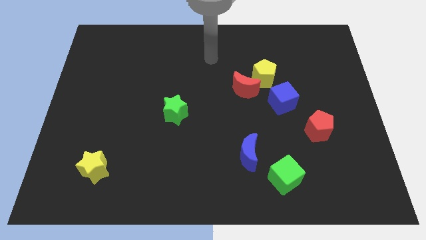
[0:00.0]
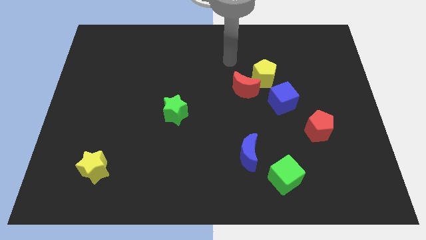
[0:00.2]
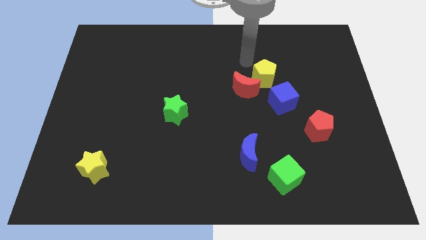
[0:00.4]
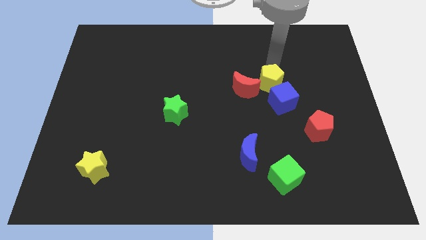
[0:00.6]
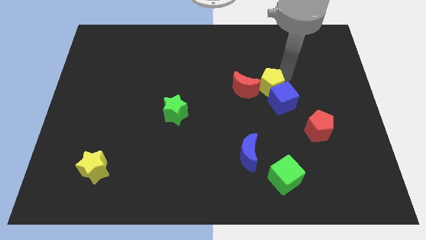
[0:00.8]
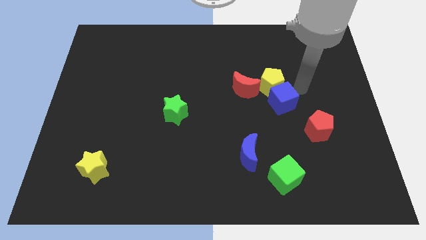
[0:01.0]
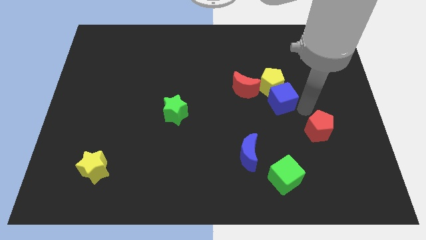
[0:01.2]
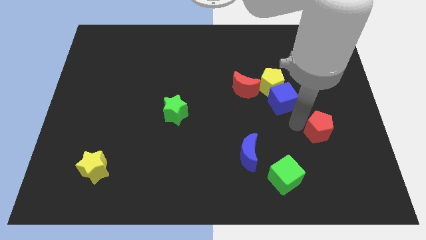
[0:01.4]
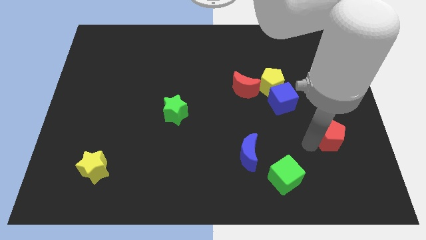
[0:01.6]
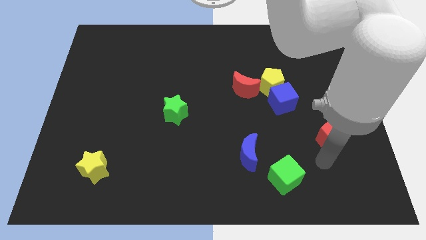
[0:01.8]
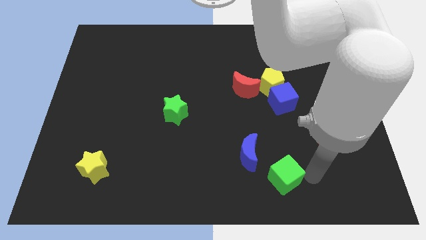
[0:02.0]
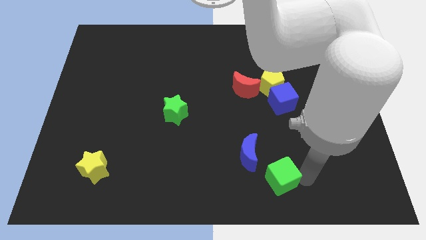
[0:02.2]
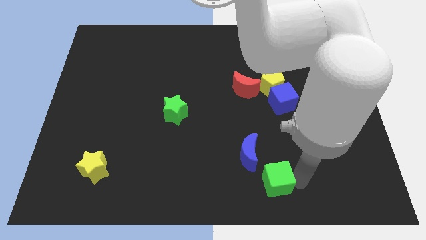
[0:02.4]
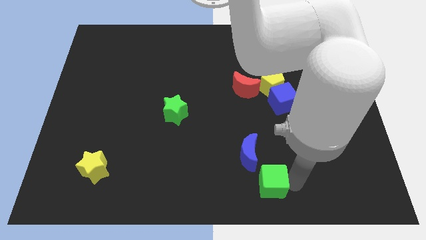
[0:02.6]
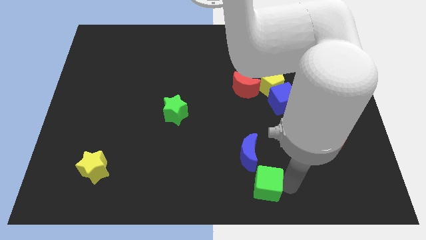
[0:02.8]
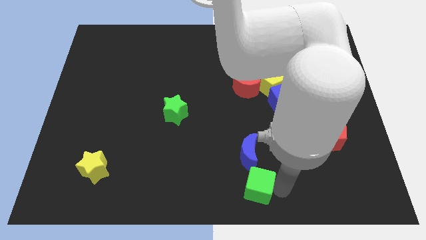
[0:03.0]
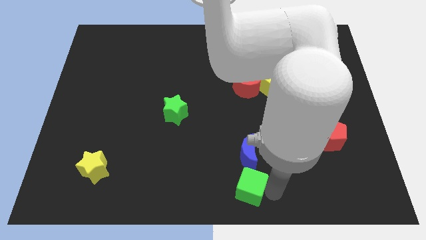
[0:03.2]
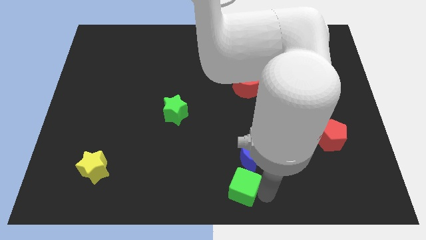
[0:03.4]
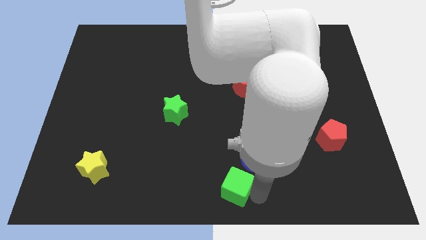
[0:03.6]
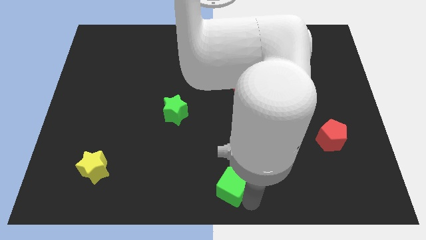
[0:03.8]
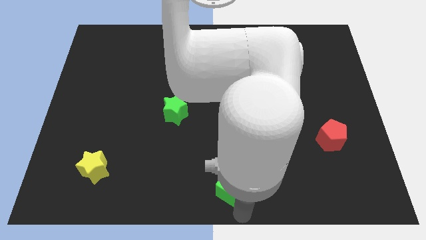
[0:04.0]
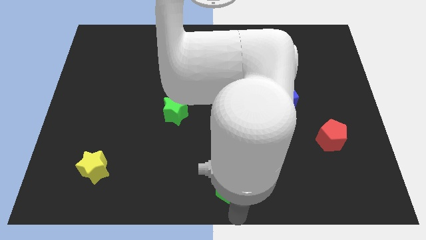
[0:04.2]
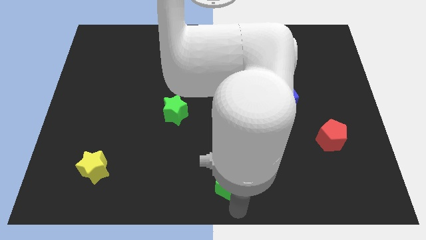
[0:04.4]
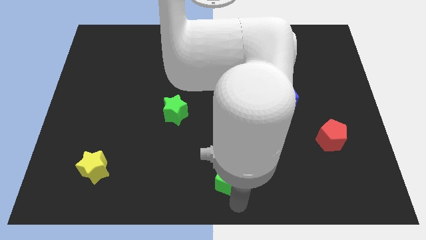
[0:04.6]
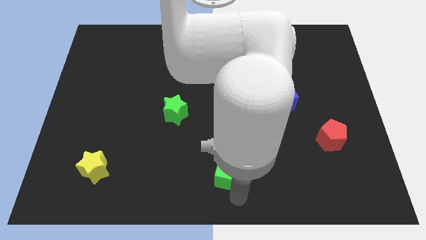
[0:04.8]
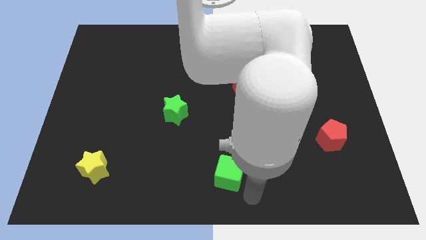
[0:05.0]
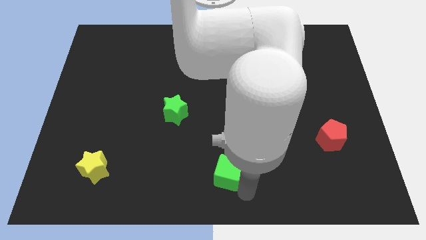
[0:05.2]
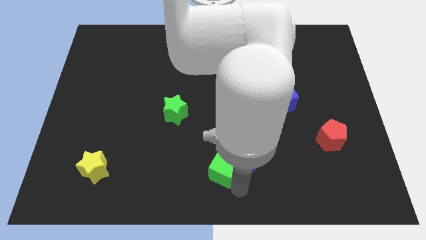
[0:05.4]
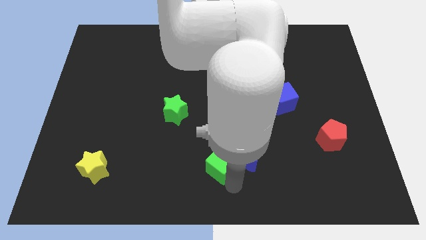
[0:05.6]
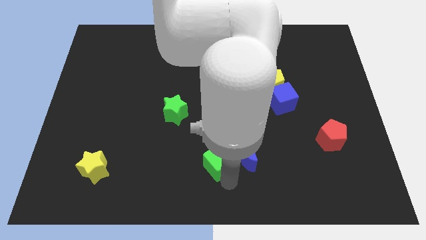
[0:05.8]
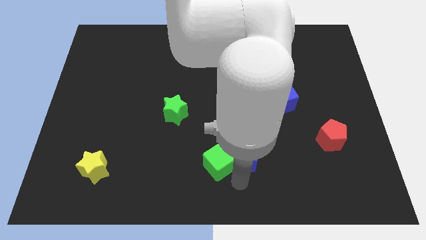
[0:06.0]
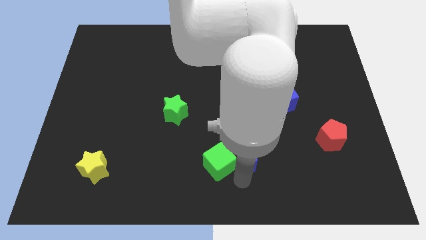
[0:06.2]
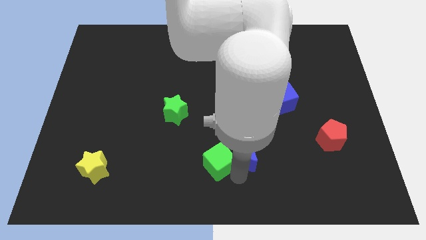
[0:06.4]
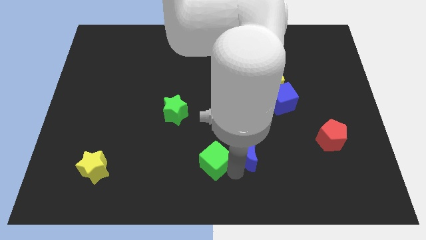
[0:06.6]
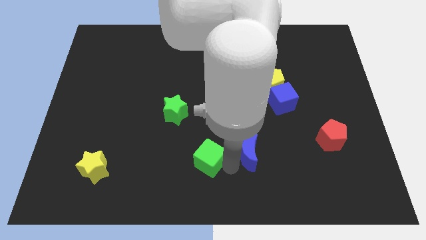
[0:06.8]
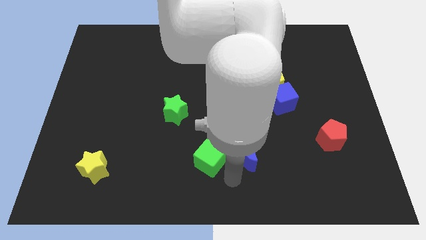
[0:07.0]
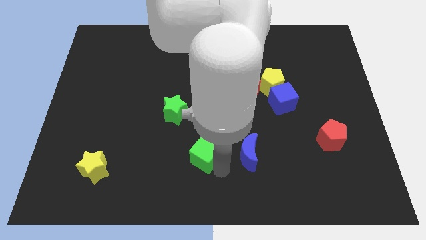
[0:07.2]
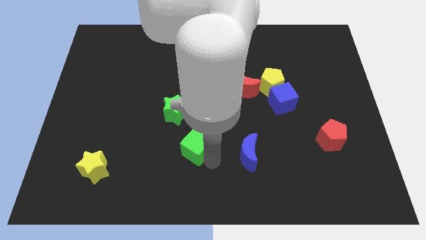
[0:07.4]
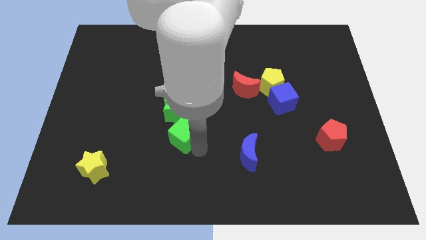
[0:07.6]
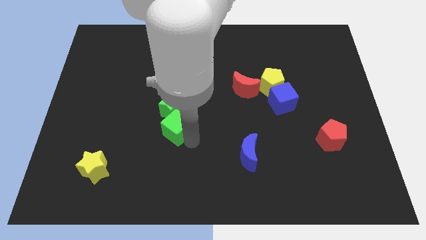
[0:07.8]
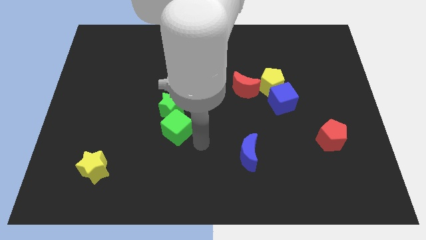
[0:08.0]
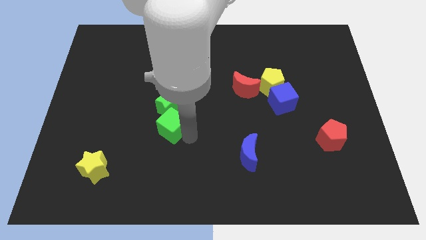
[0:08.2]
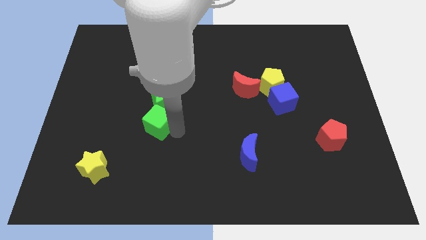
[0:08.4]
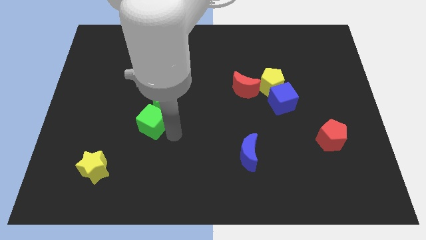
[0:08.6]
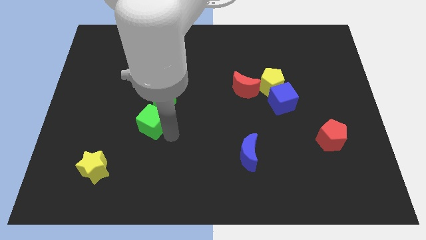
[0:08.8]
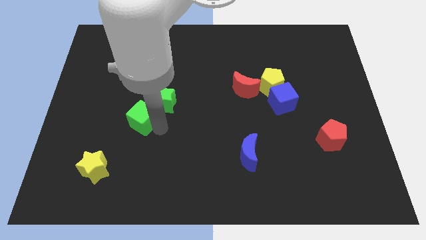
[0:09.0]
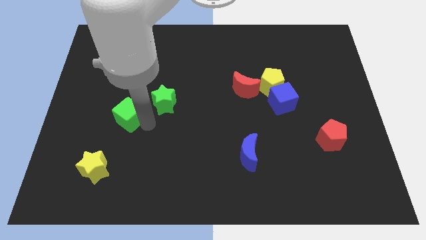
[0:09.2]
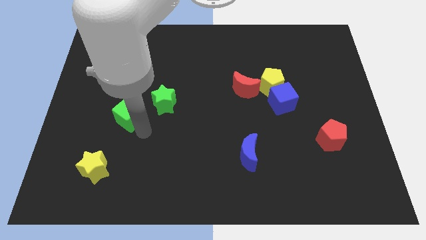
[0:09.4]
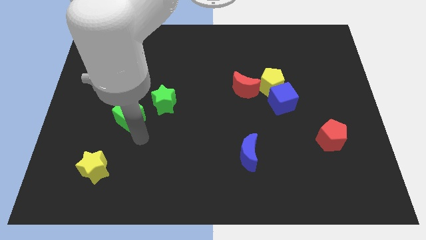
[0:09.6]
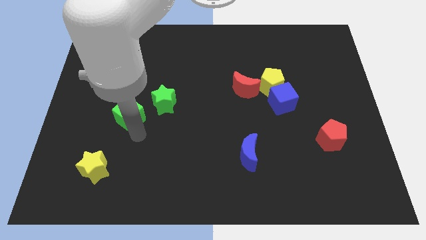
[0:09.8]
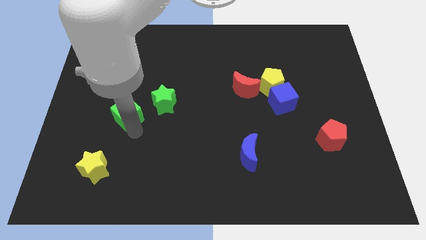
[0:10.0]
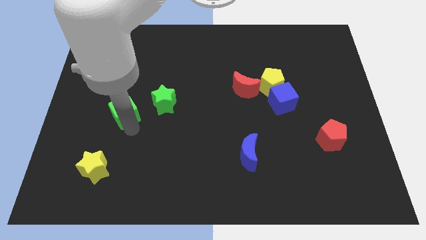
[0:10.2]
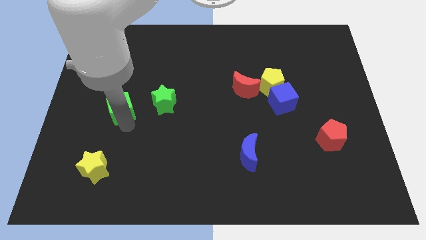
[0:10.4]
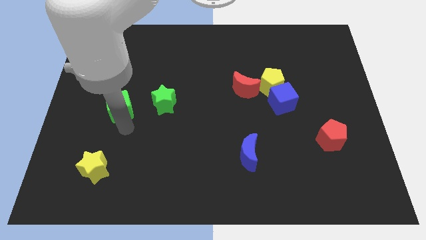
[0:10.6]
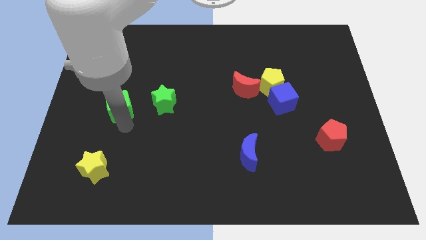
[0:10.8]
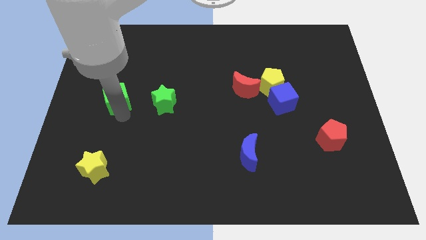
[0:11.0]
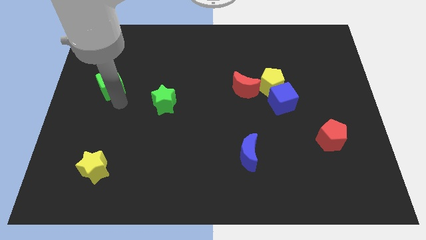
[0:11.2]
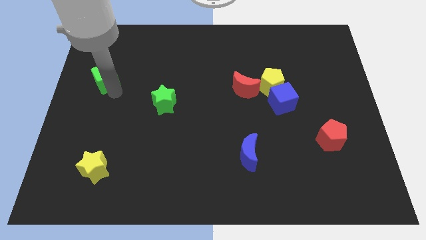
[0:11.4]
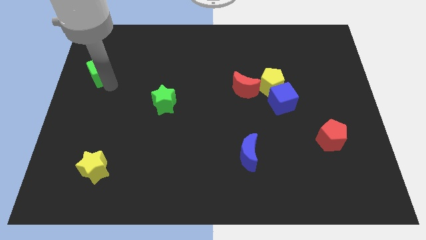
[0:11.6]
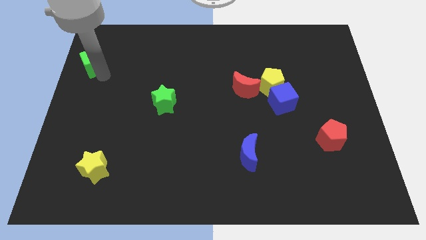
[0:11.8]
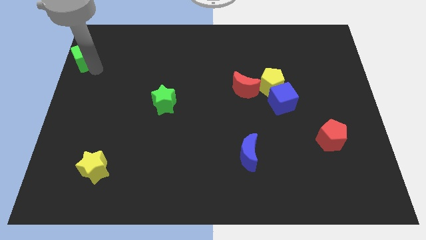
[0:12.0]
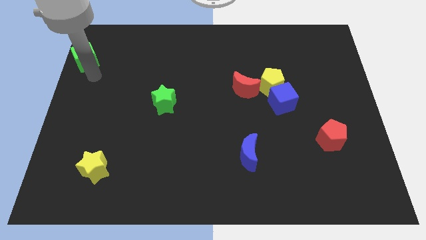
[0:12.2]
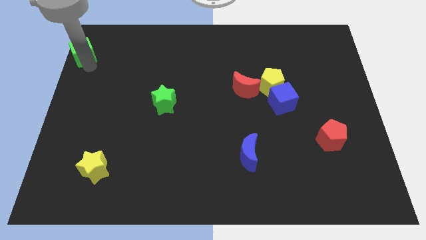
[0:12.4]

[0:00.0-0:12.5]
move the green cube to the top left of the board

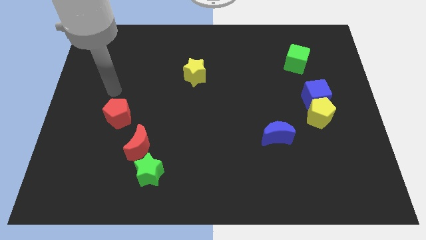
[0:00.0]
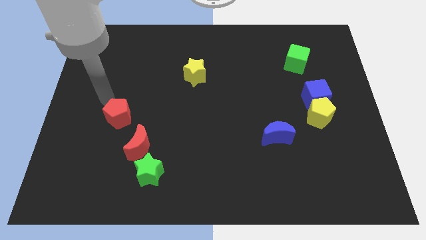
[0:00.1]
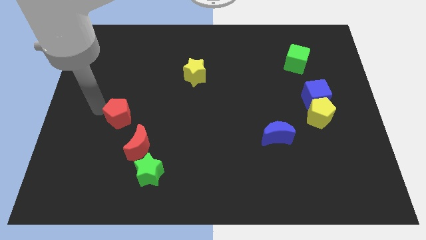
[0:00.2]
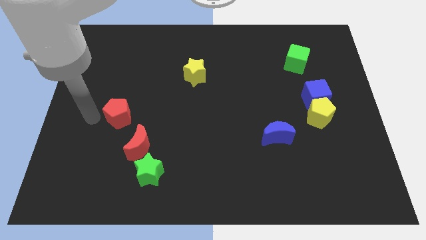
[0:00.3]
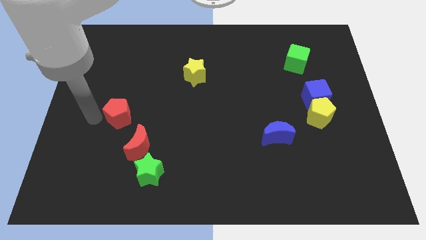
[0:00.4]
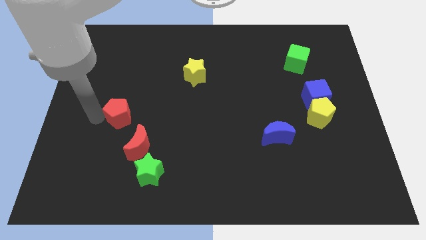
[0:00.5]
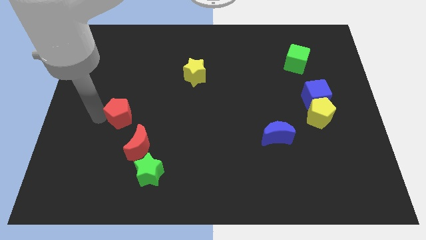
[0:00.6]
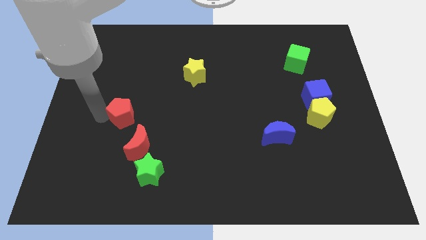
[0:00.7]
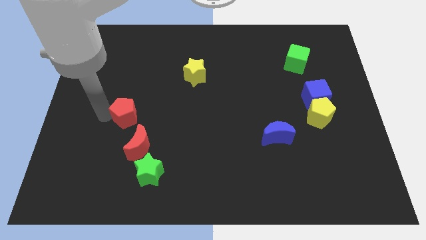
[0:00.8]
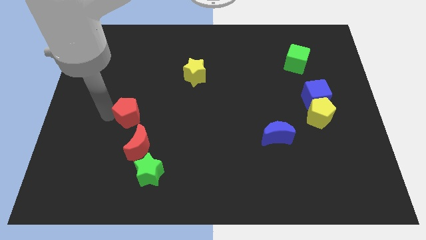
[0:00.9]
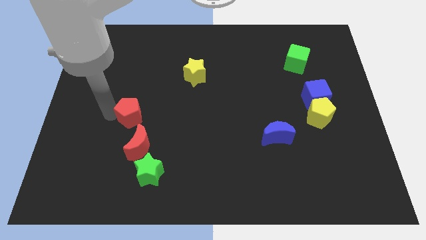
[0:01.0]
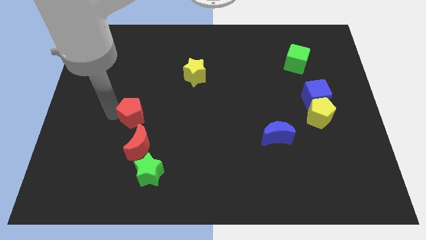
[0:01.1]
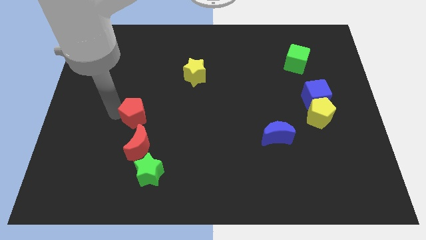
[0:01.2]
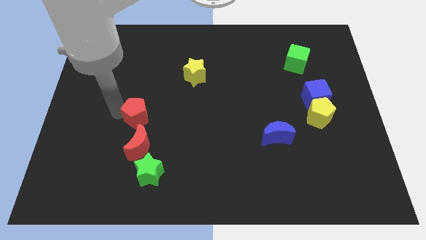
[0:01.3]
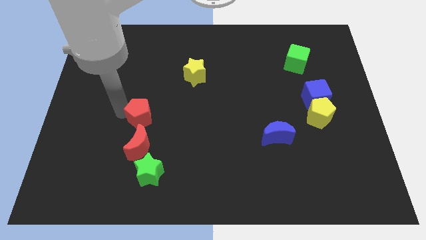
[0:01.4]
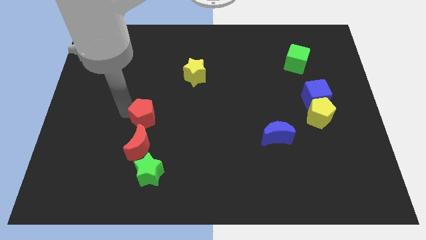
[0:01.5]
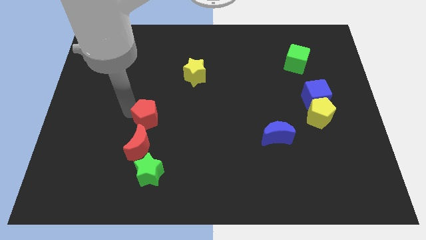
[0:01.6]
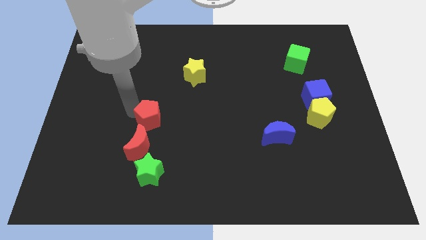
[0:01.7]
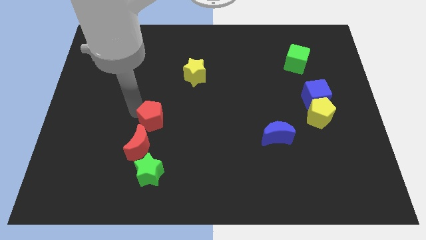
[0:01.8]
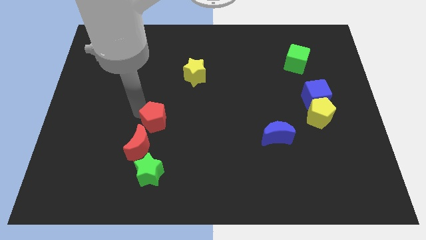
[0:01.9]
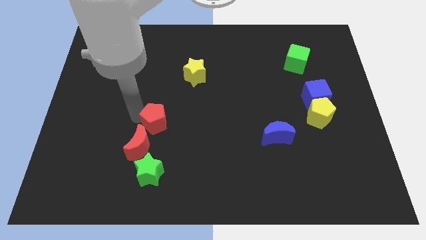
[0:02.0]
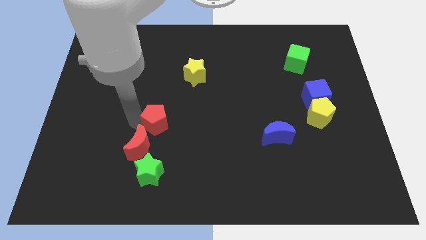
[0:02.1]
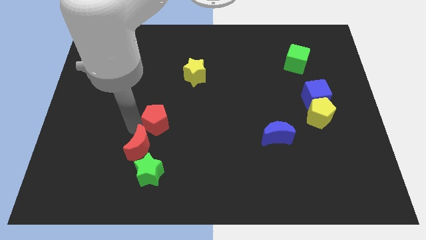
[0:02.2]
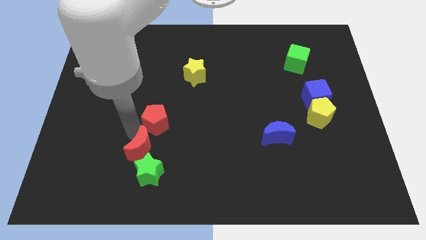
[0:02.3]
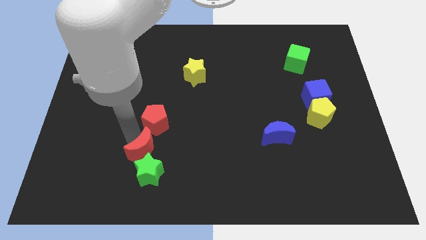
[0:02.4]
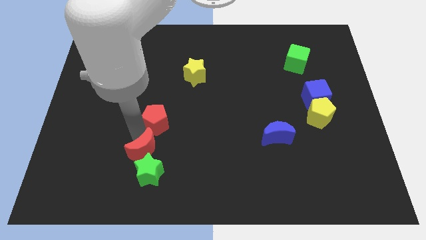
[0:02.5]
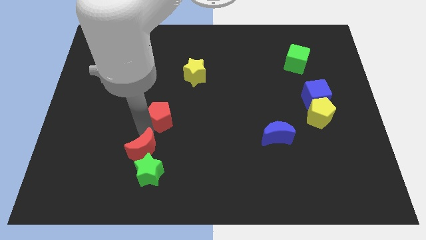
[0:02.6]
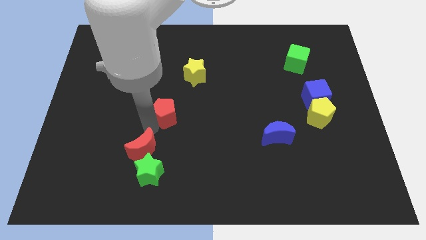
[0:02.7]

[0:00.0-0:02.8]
slide the red pentagon to the center
